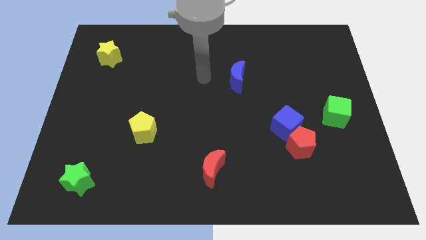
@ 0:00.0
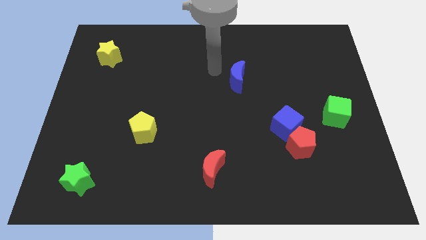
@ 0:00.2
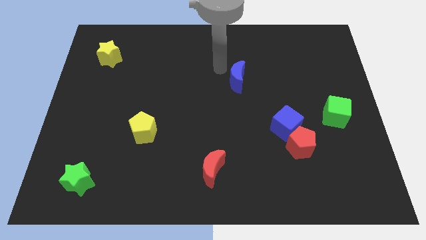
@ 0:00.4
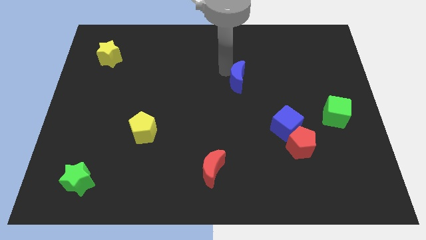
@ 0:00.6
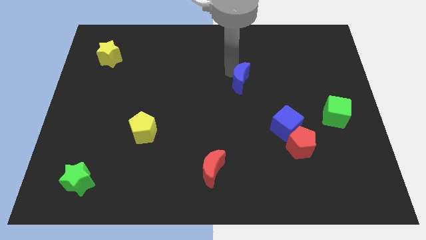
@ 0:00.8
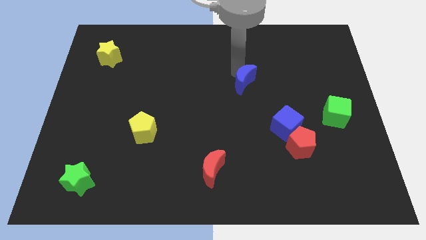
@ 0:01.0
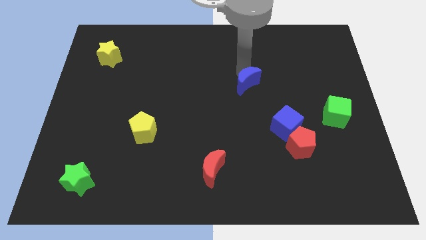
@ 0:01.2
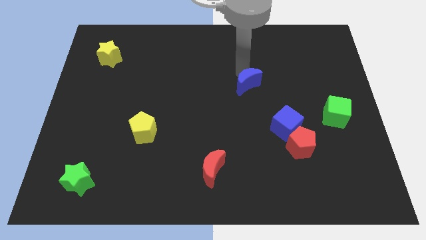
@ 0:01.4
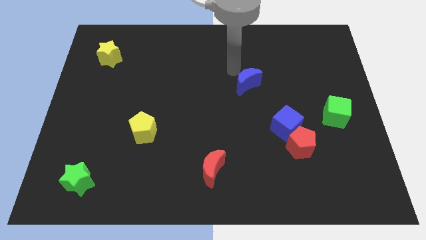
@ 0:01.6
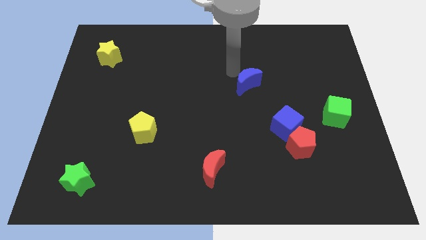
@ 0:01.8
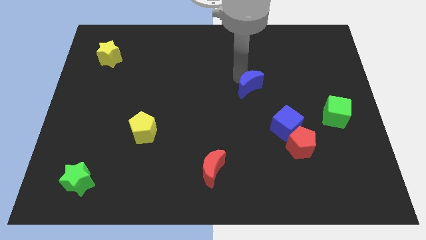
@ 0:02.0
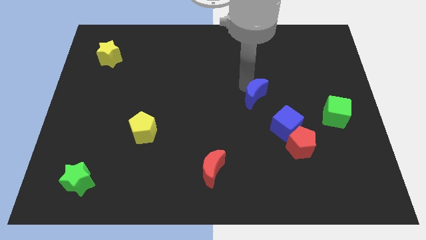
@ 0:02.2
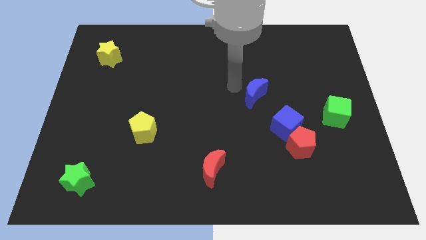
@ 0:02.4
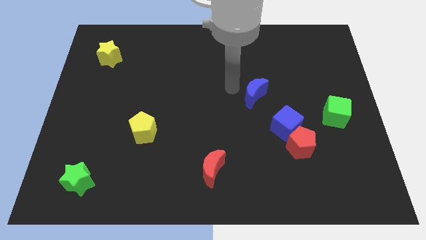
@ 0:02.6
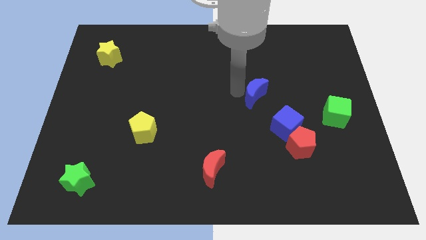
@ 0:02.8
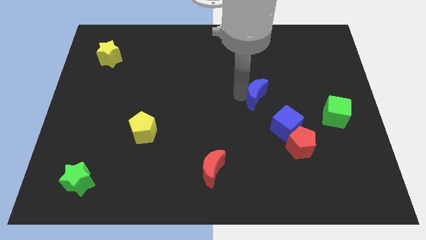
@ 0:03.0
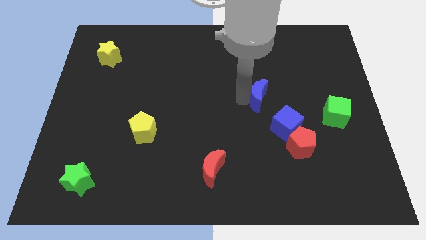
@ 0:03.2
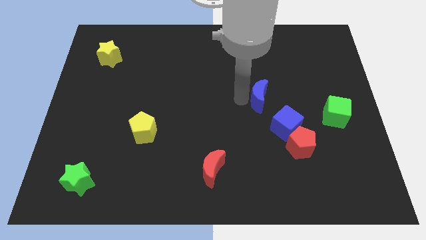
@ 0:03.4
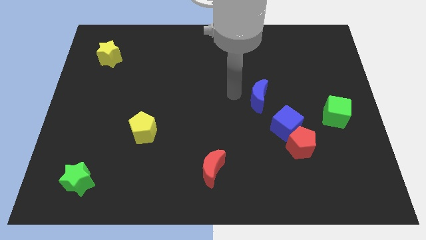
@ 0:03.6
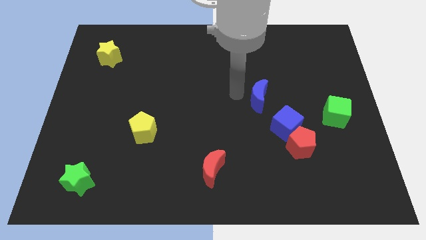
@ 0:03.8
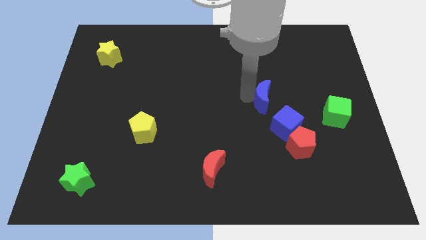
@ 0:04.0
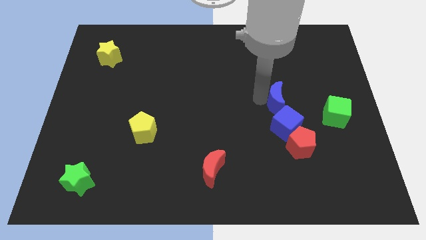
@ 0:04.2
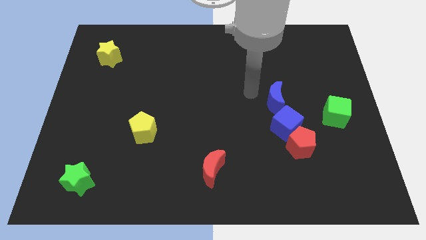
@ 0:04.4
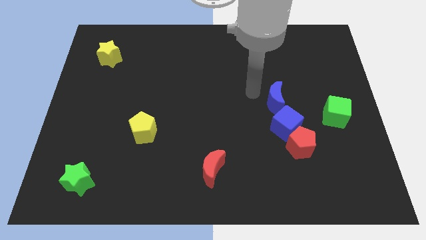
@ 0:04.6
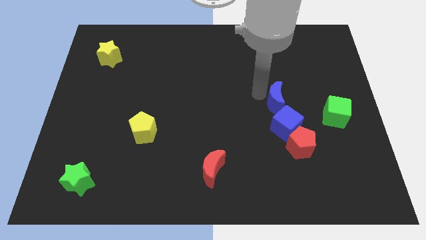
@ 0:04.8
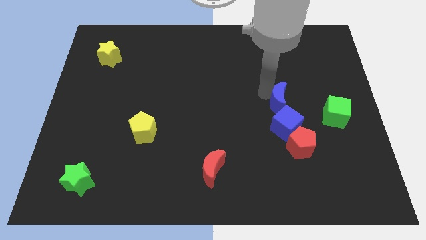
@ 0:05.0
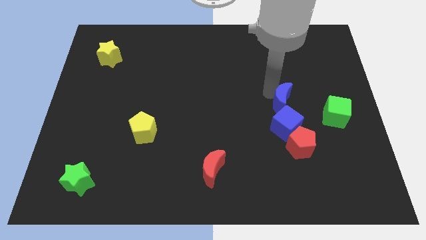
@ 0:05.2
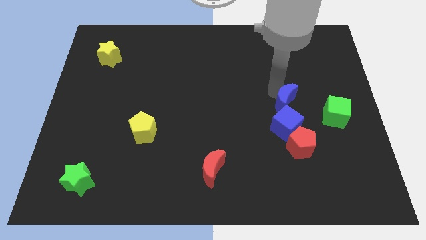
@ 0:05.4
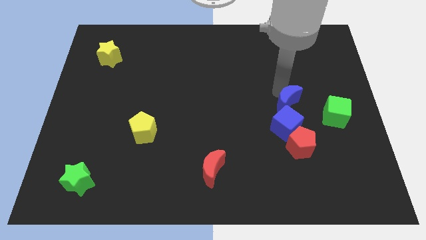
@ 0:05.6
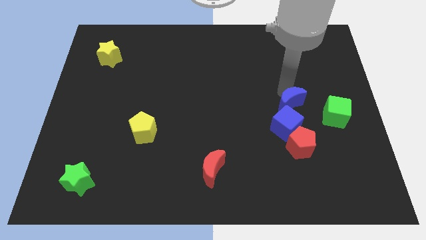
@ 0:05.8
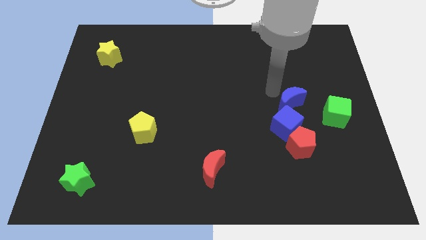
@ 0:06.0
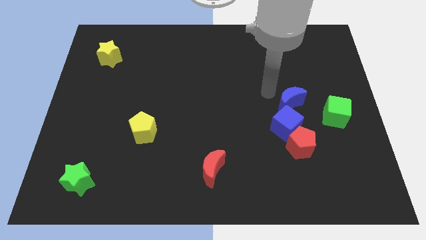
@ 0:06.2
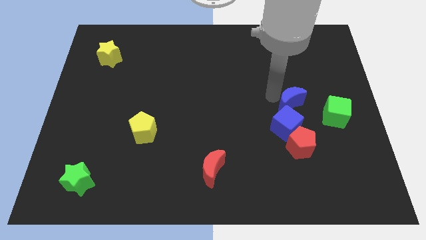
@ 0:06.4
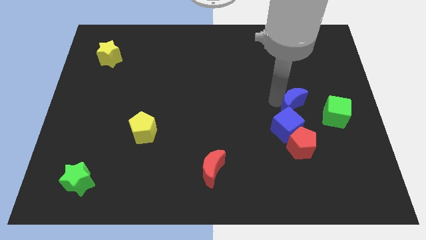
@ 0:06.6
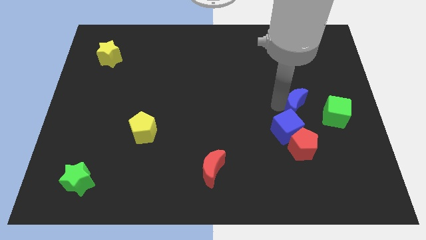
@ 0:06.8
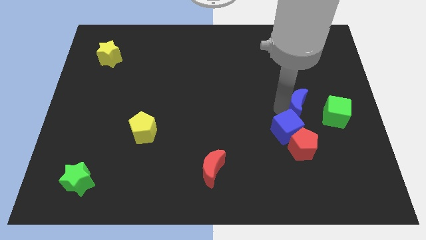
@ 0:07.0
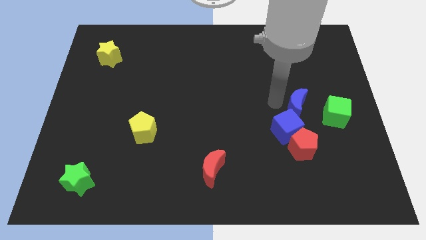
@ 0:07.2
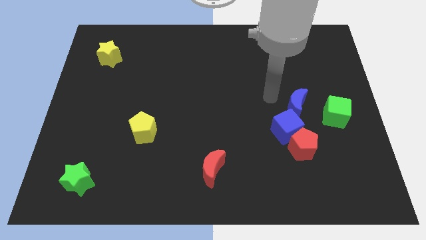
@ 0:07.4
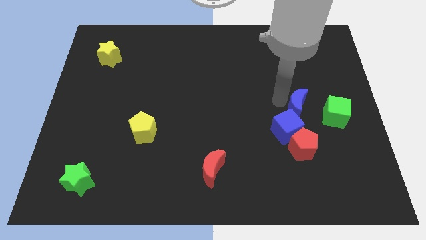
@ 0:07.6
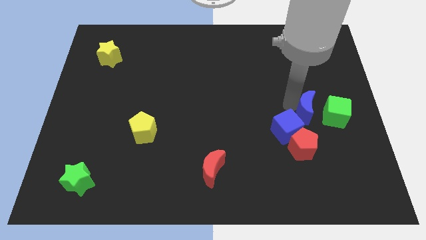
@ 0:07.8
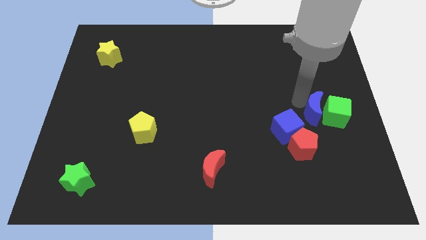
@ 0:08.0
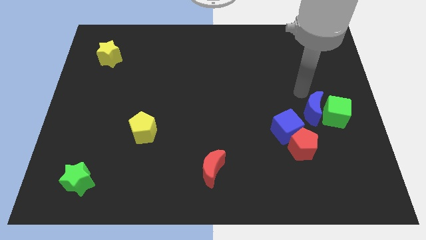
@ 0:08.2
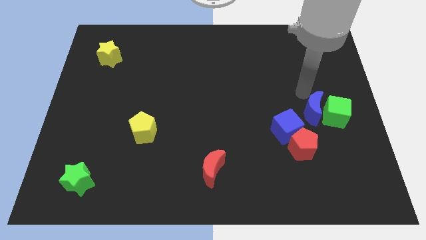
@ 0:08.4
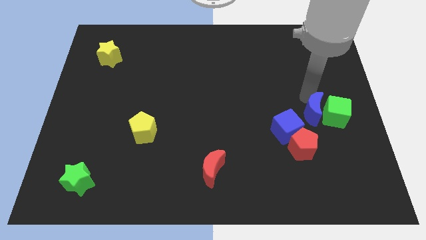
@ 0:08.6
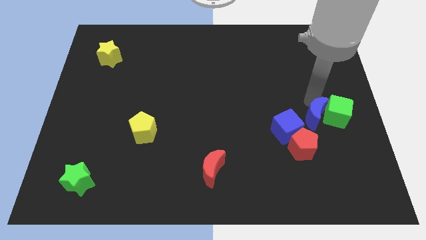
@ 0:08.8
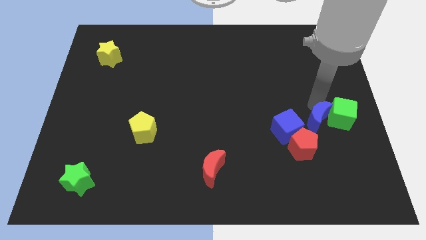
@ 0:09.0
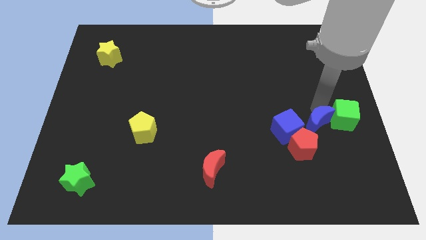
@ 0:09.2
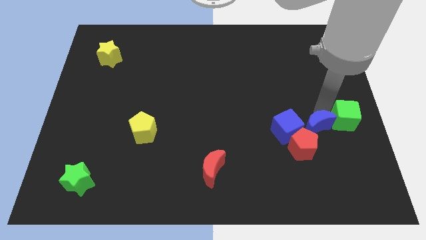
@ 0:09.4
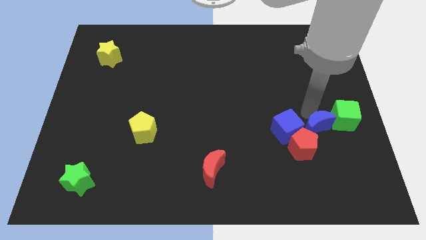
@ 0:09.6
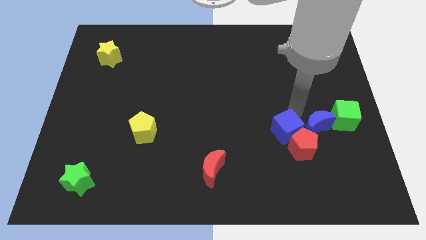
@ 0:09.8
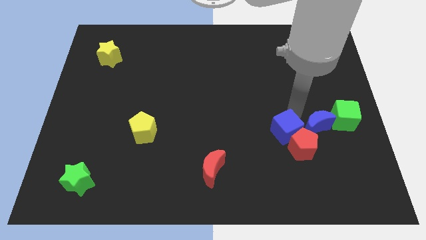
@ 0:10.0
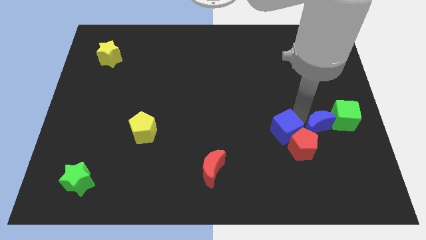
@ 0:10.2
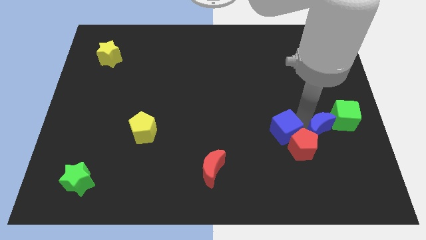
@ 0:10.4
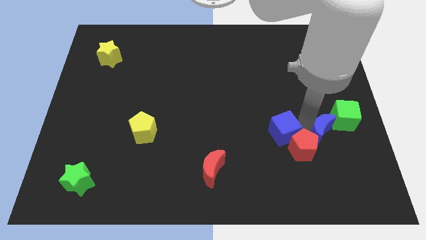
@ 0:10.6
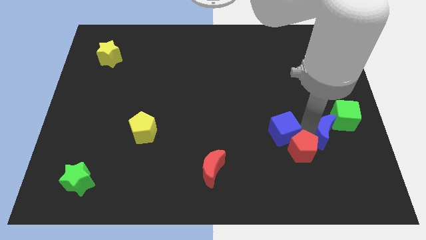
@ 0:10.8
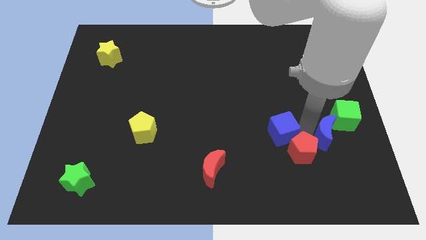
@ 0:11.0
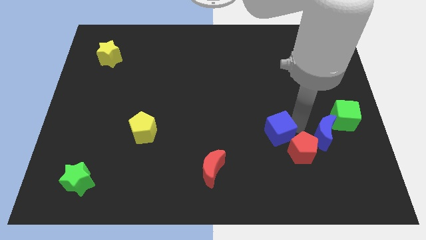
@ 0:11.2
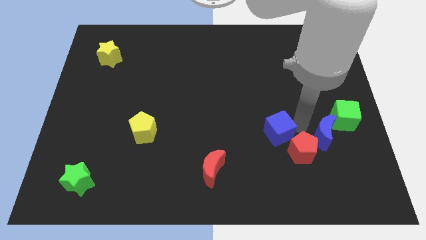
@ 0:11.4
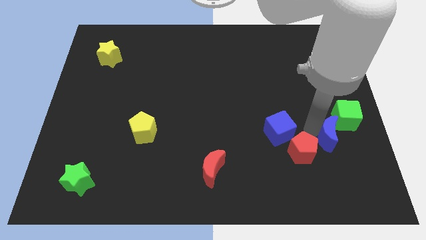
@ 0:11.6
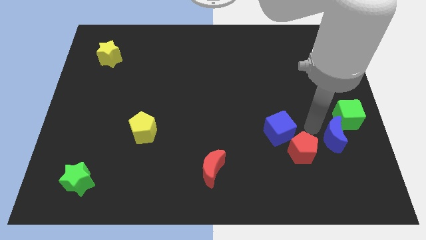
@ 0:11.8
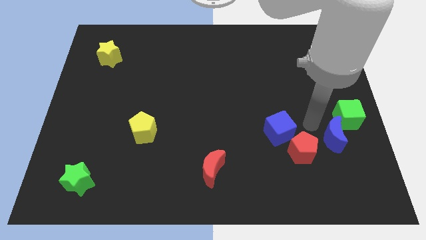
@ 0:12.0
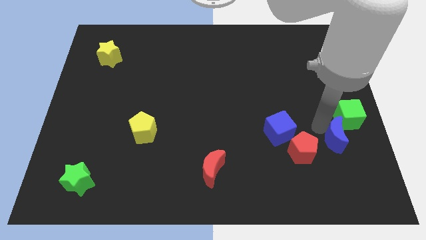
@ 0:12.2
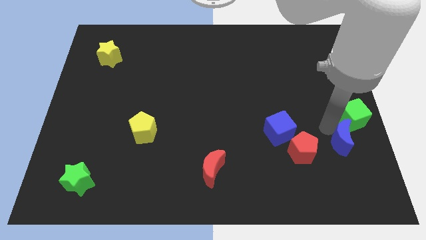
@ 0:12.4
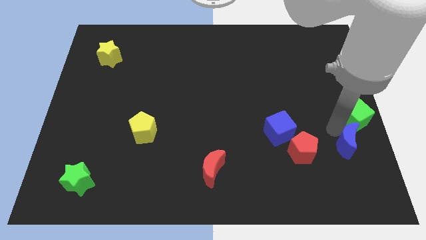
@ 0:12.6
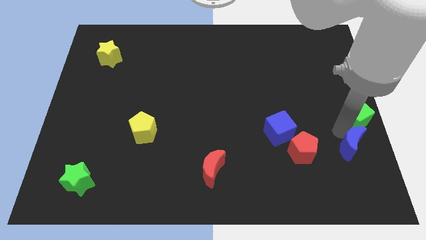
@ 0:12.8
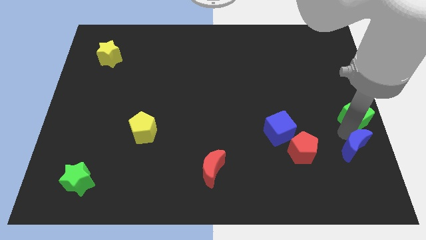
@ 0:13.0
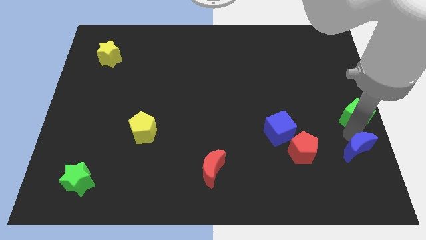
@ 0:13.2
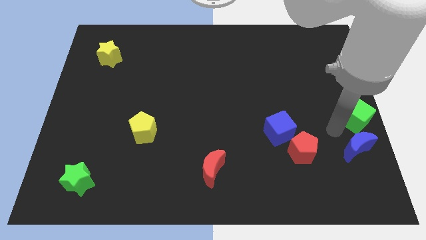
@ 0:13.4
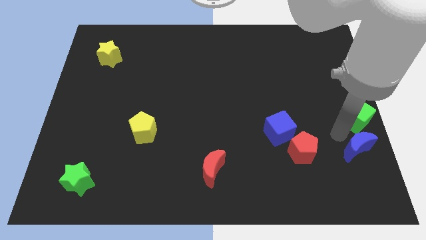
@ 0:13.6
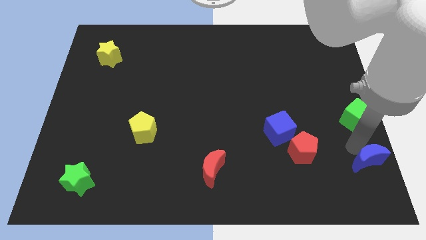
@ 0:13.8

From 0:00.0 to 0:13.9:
put the blue moon to the bottom right corner
